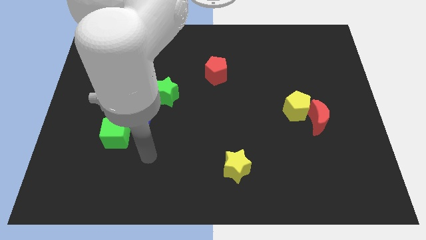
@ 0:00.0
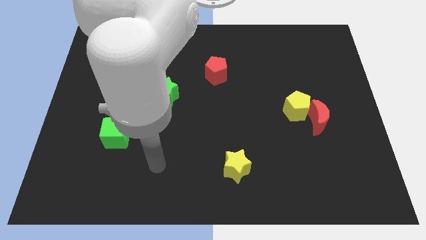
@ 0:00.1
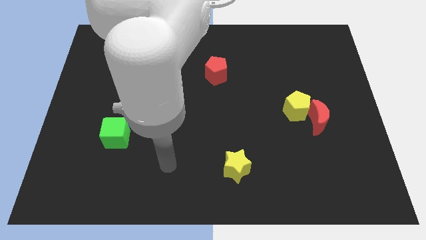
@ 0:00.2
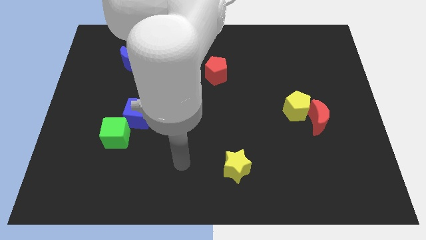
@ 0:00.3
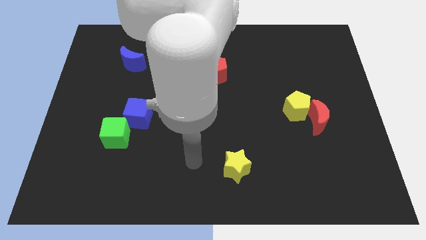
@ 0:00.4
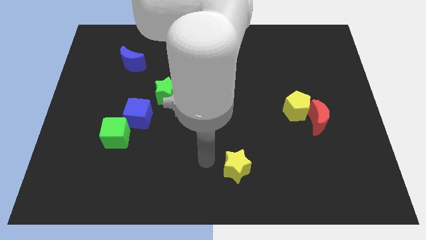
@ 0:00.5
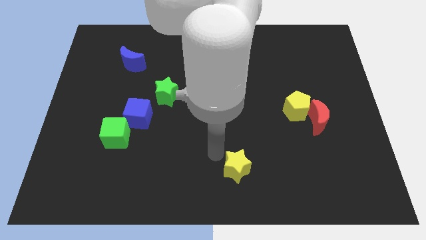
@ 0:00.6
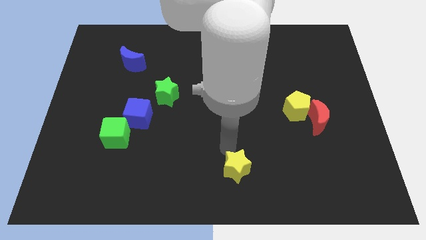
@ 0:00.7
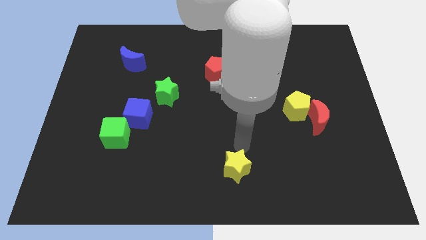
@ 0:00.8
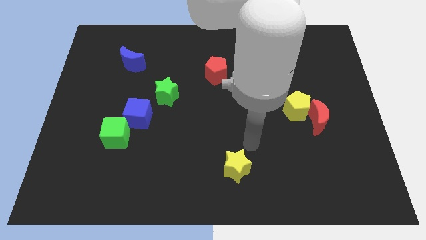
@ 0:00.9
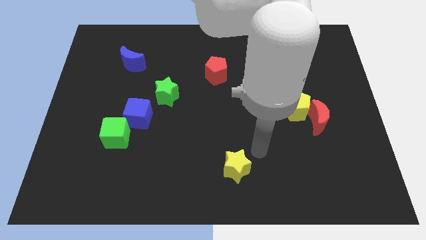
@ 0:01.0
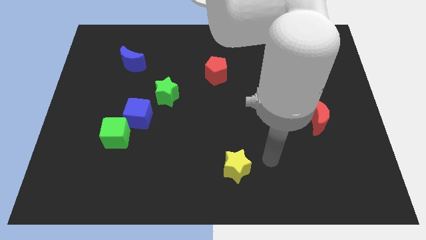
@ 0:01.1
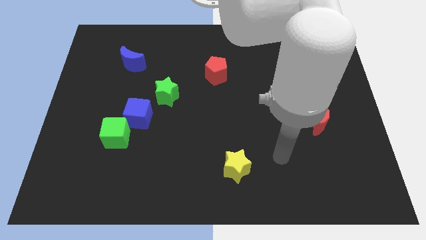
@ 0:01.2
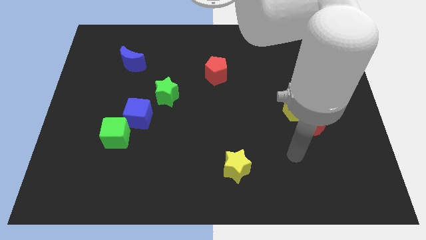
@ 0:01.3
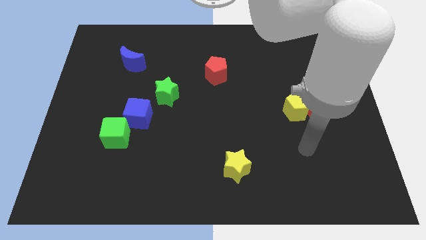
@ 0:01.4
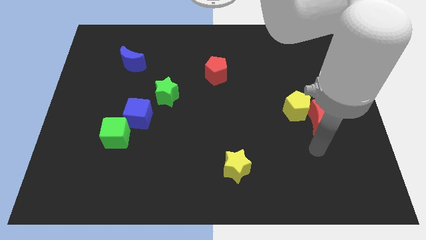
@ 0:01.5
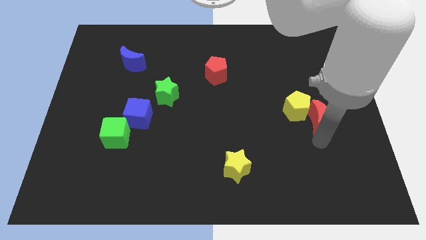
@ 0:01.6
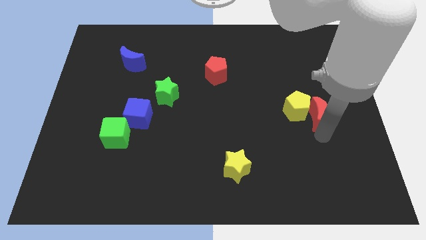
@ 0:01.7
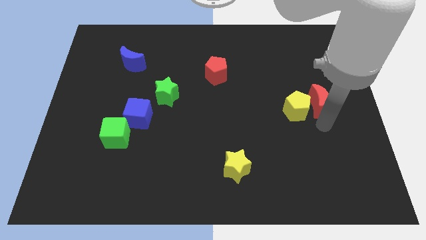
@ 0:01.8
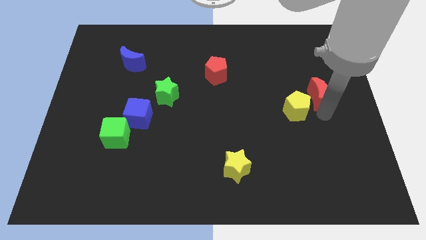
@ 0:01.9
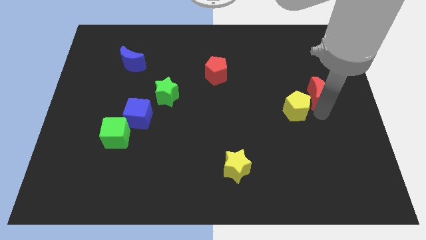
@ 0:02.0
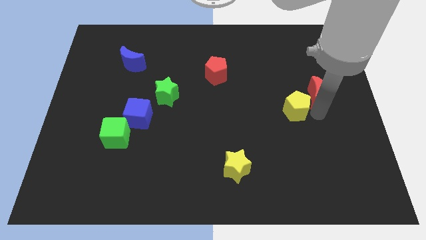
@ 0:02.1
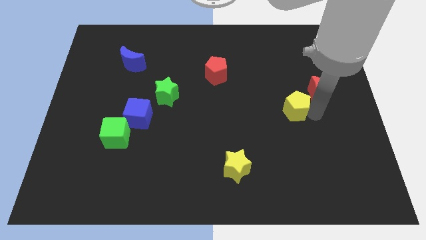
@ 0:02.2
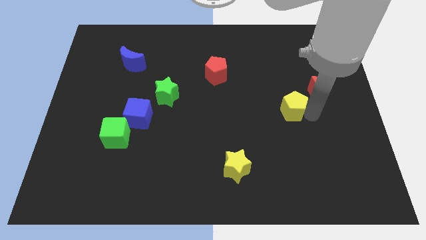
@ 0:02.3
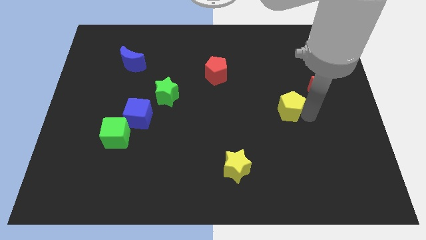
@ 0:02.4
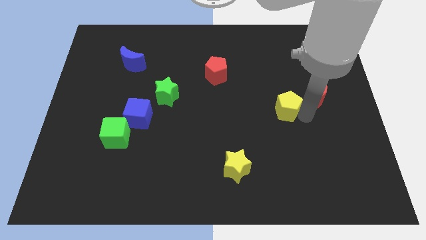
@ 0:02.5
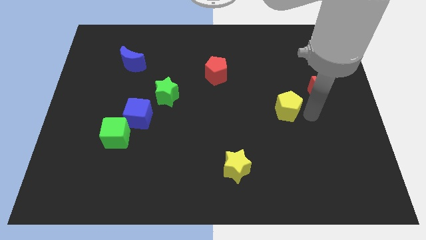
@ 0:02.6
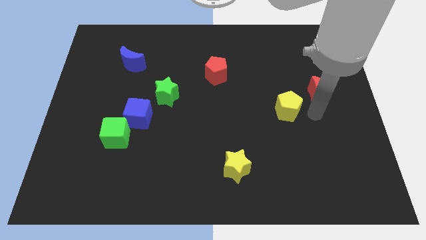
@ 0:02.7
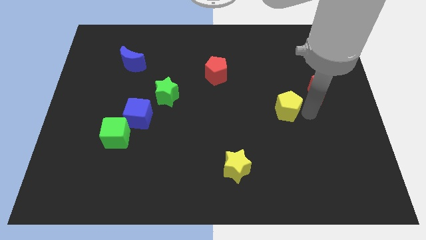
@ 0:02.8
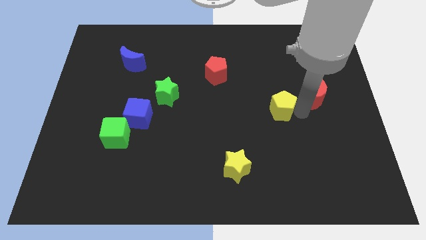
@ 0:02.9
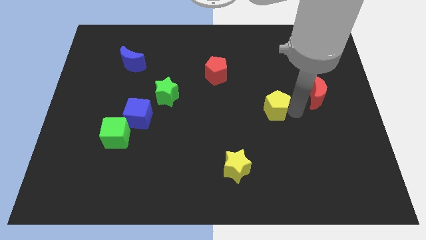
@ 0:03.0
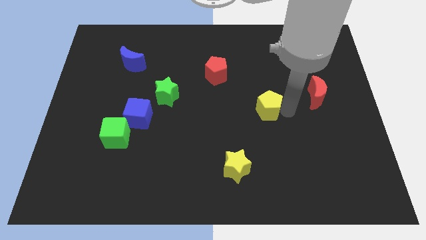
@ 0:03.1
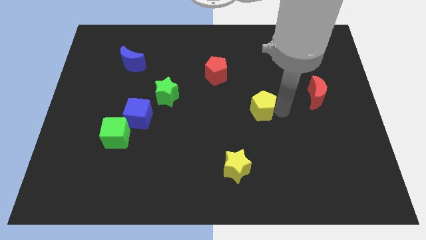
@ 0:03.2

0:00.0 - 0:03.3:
slide the yellow pentagon to the left somewhat

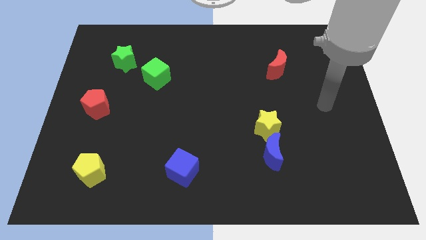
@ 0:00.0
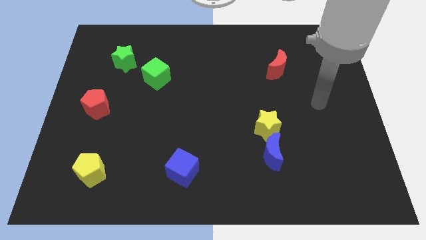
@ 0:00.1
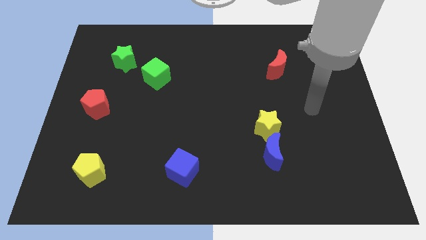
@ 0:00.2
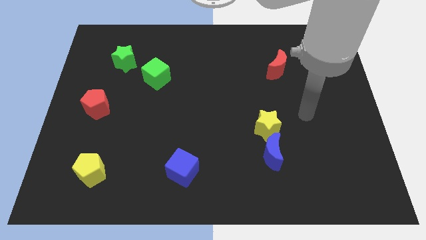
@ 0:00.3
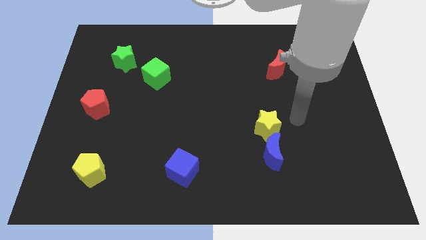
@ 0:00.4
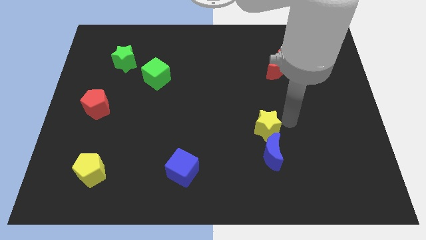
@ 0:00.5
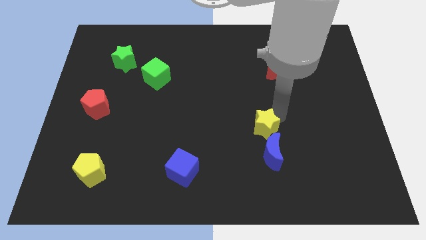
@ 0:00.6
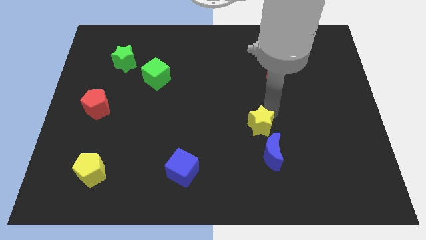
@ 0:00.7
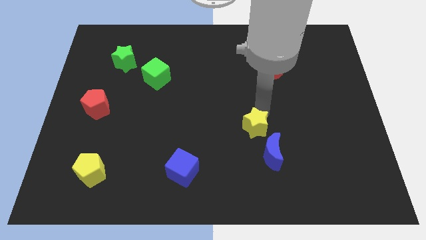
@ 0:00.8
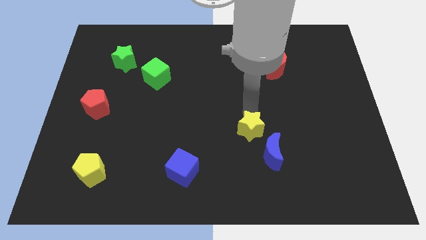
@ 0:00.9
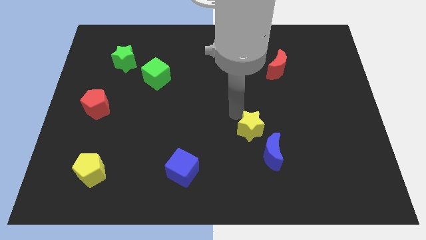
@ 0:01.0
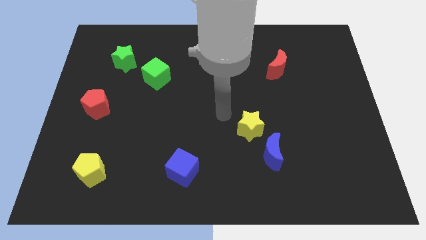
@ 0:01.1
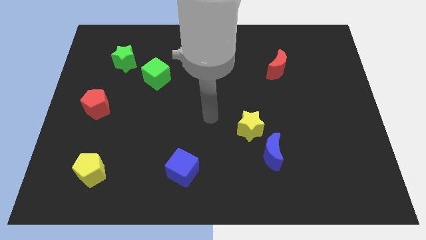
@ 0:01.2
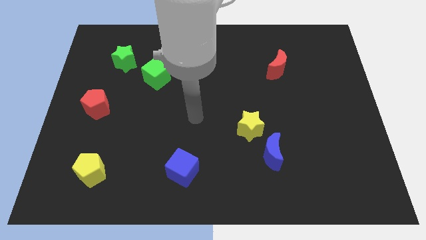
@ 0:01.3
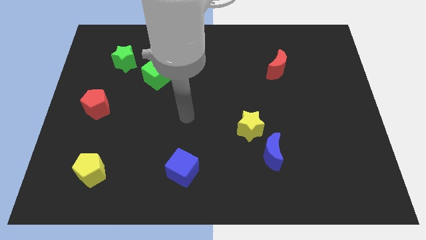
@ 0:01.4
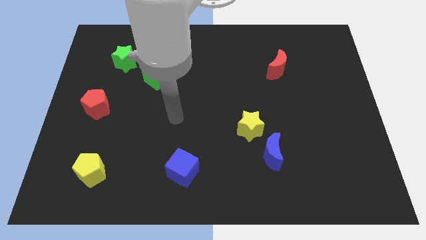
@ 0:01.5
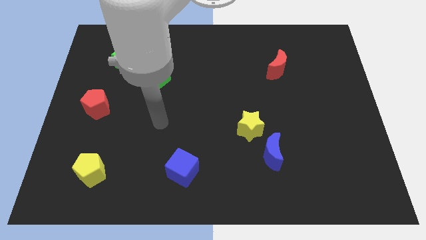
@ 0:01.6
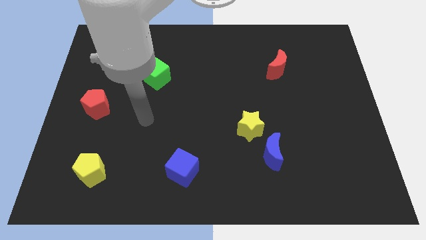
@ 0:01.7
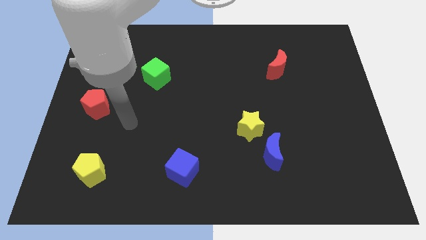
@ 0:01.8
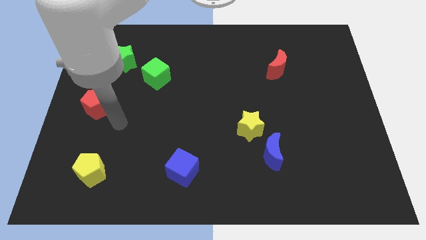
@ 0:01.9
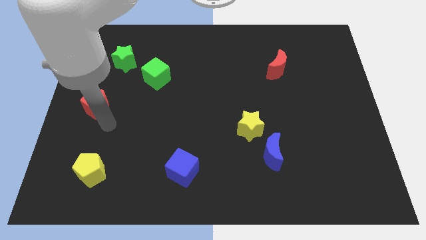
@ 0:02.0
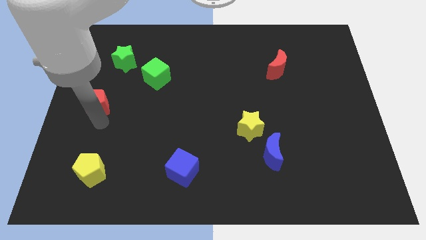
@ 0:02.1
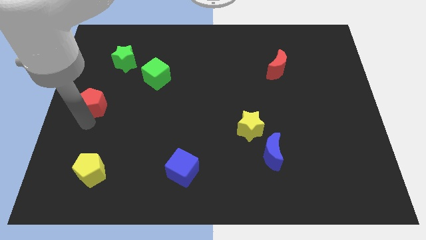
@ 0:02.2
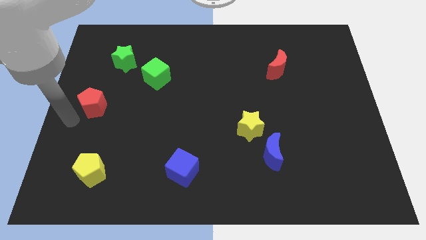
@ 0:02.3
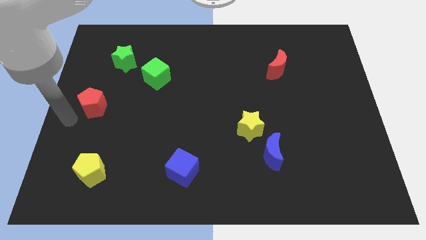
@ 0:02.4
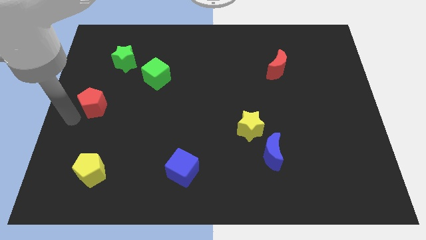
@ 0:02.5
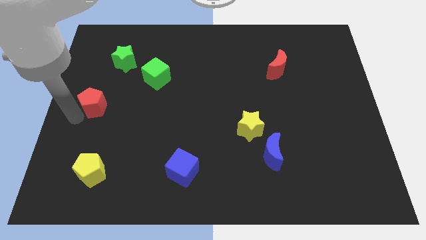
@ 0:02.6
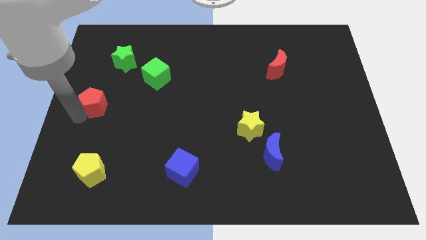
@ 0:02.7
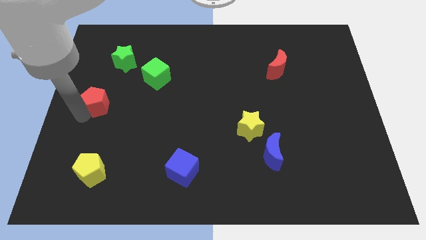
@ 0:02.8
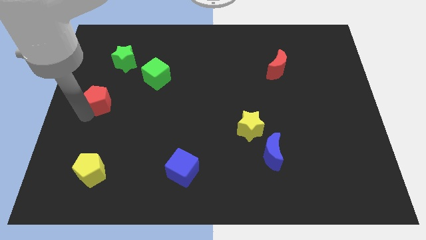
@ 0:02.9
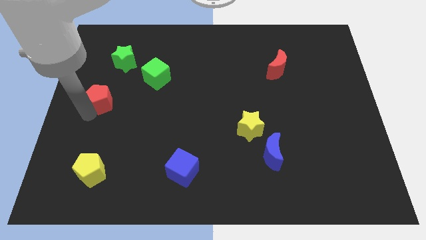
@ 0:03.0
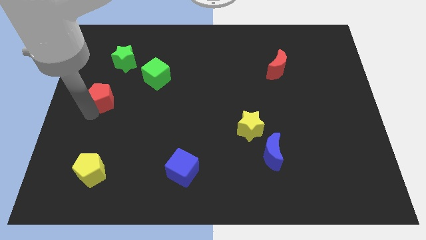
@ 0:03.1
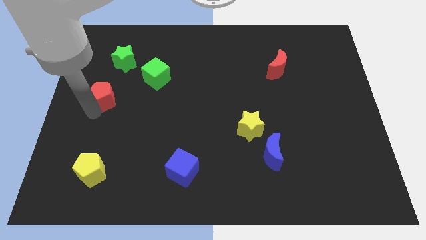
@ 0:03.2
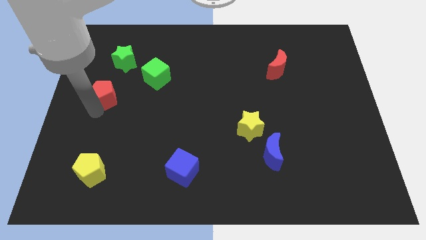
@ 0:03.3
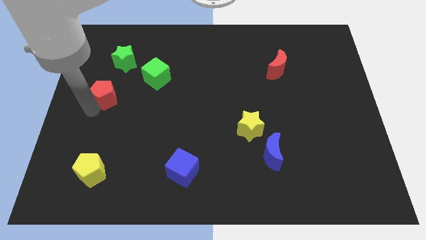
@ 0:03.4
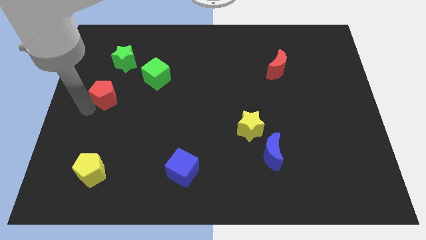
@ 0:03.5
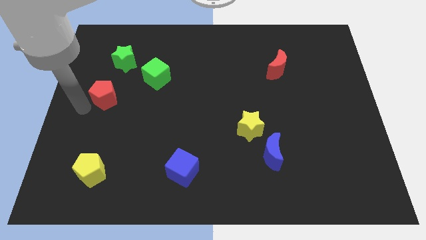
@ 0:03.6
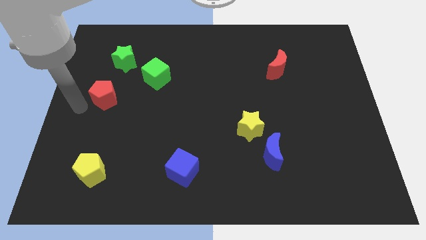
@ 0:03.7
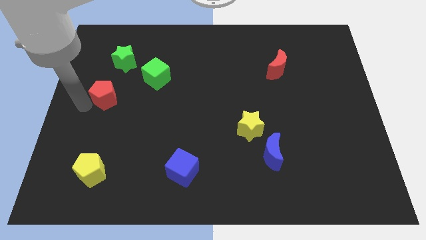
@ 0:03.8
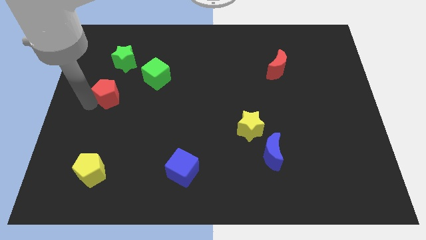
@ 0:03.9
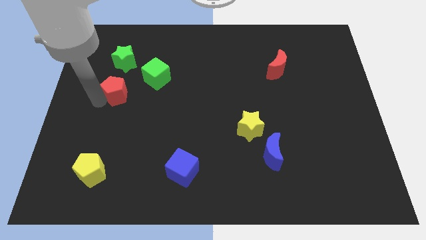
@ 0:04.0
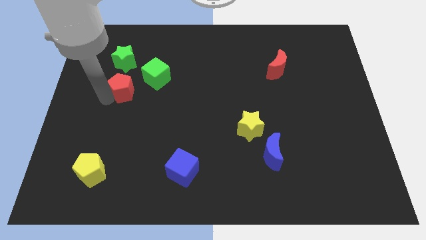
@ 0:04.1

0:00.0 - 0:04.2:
slightly slide the red pentagon up and right diagonally

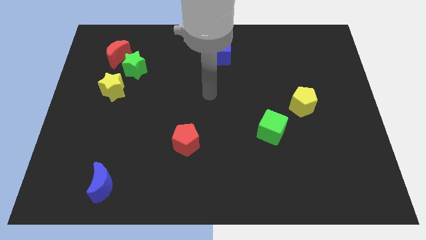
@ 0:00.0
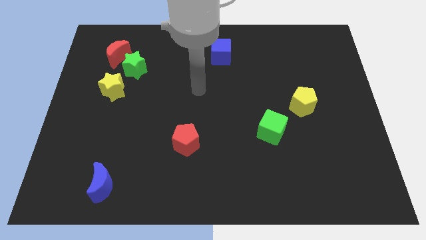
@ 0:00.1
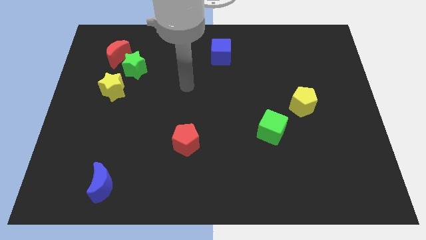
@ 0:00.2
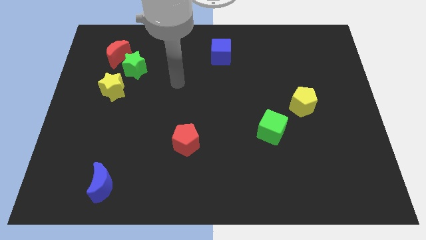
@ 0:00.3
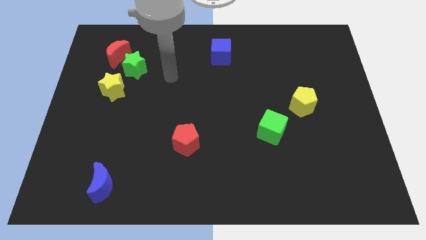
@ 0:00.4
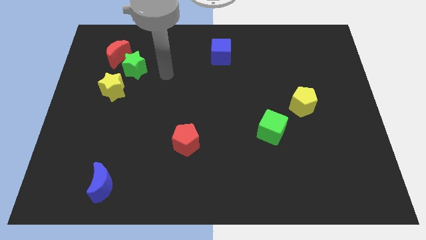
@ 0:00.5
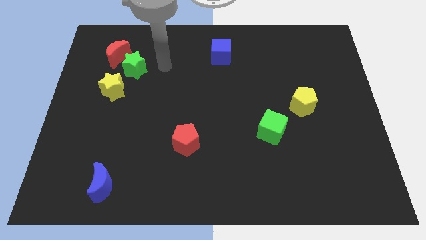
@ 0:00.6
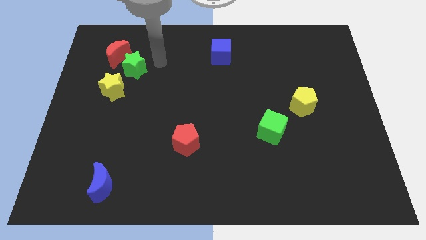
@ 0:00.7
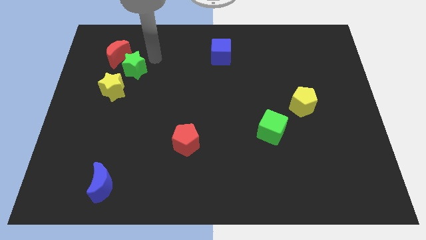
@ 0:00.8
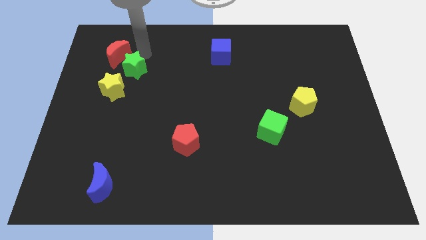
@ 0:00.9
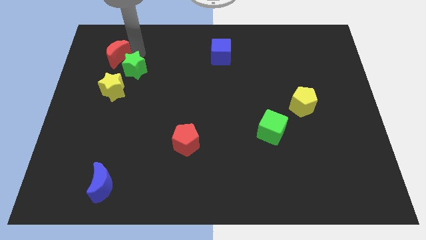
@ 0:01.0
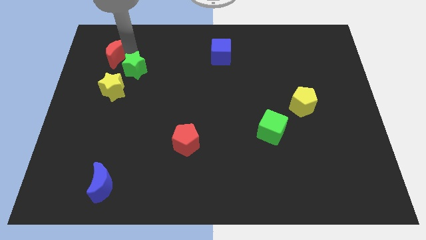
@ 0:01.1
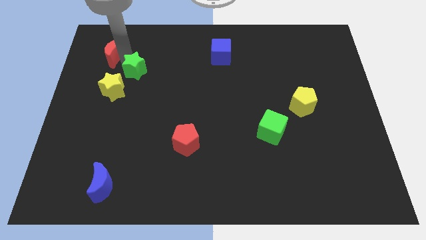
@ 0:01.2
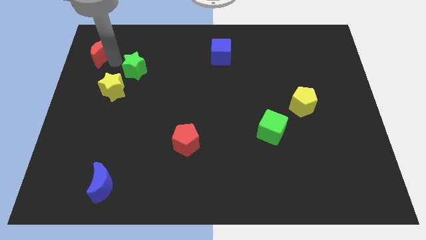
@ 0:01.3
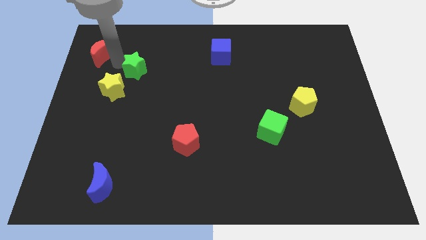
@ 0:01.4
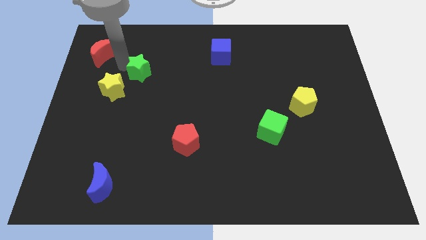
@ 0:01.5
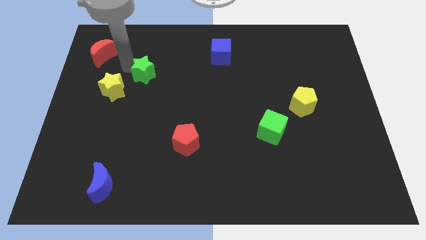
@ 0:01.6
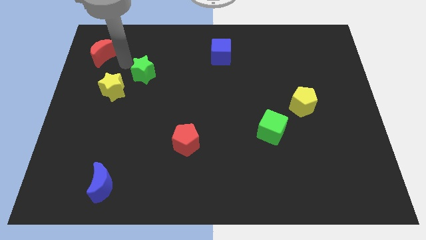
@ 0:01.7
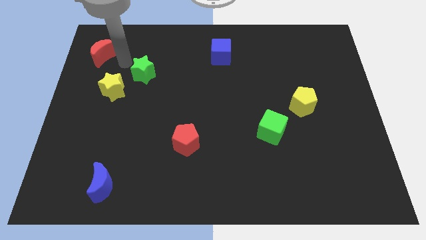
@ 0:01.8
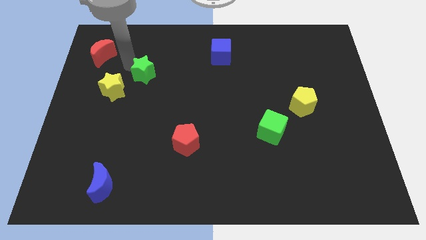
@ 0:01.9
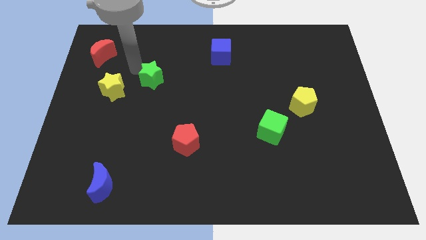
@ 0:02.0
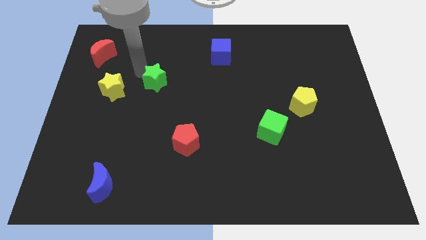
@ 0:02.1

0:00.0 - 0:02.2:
slide the green star diagonally downwards and to the right a little bit
